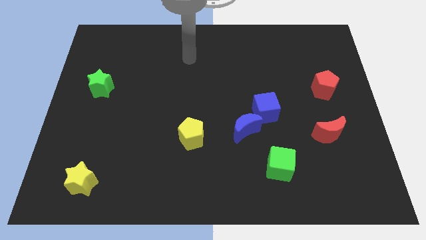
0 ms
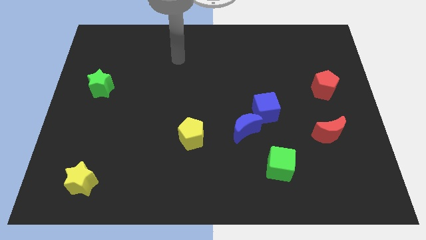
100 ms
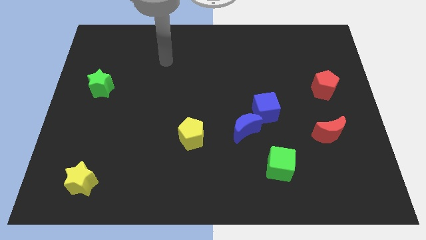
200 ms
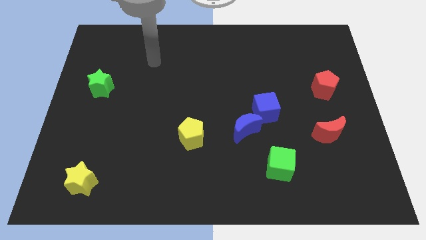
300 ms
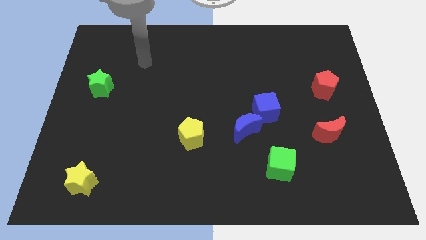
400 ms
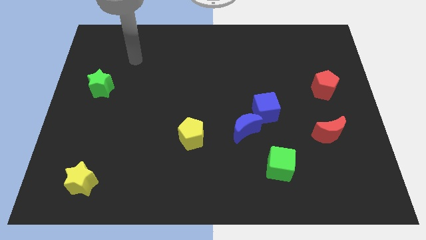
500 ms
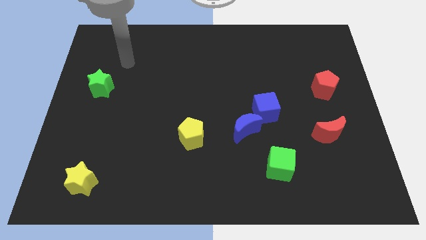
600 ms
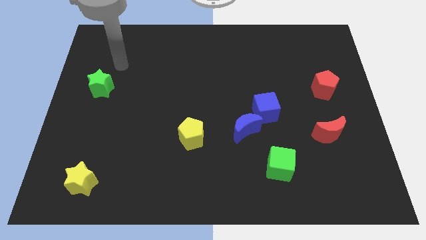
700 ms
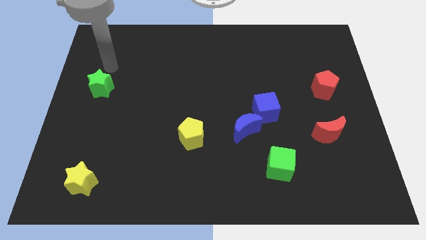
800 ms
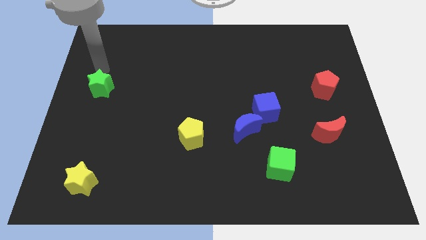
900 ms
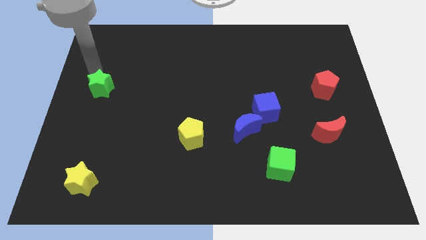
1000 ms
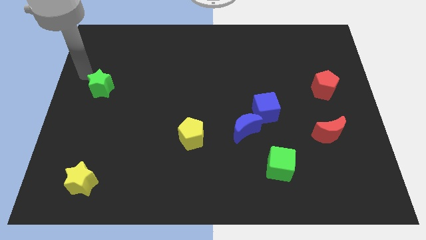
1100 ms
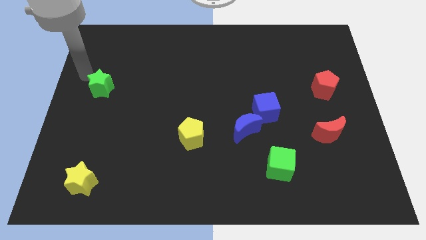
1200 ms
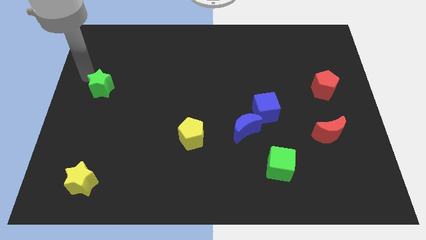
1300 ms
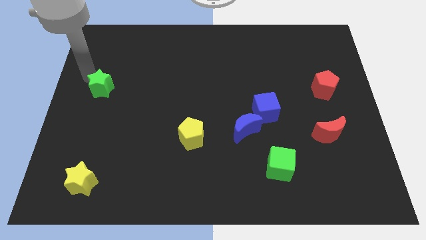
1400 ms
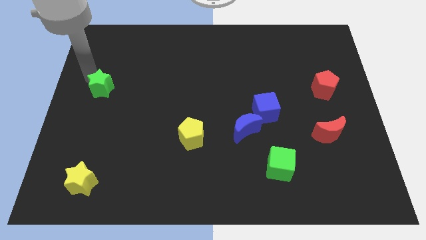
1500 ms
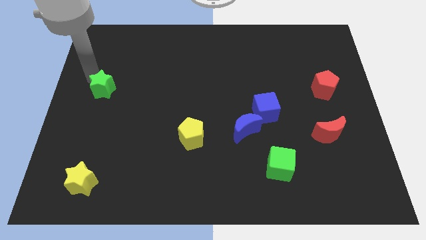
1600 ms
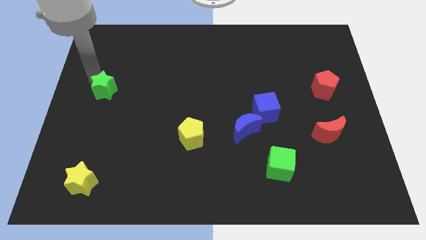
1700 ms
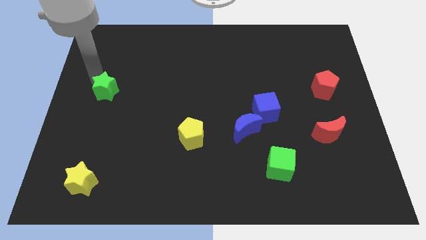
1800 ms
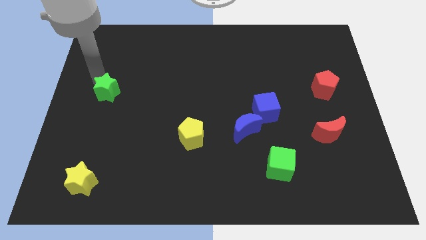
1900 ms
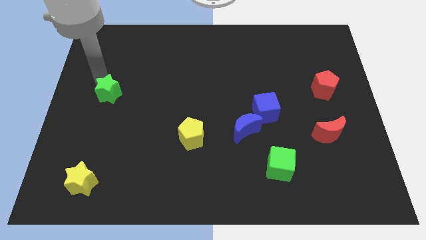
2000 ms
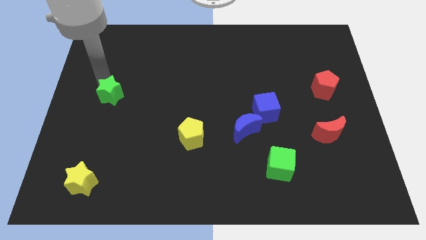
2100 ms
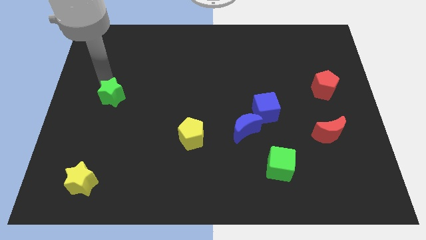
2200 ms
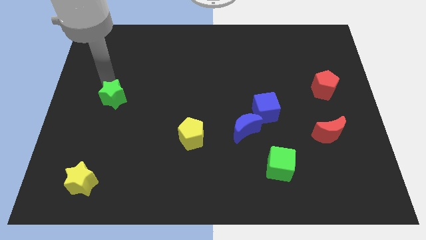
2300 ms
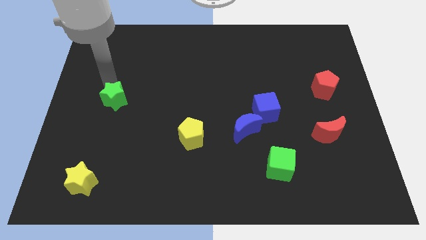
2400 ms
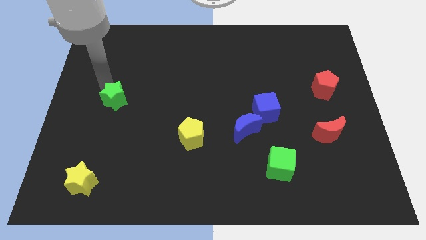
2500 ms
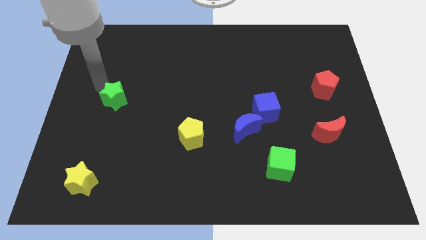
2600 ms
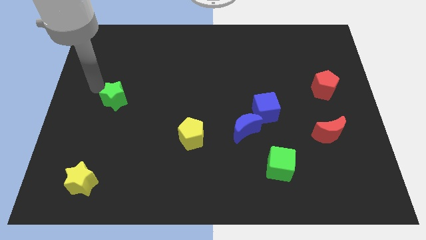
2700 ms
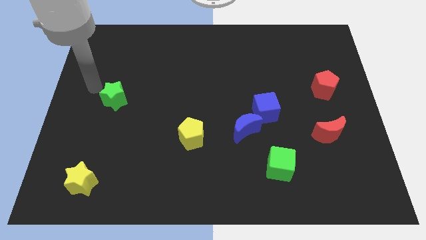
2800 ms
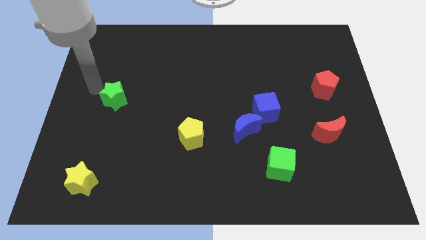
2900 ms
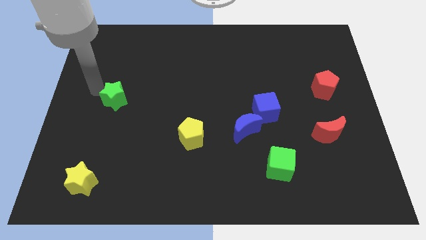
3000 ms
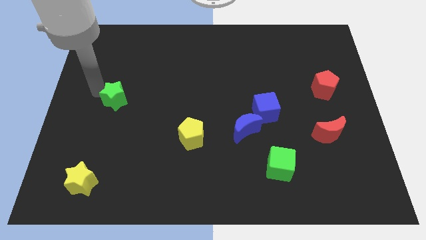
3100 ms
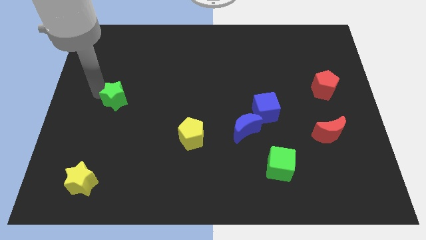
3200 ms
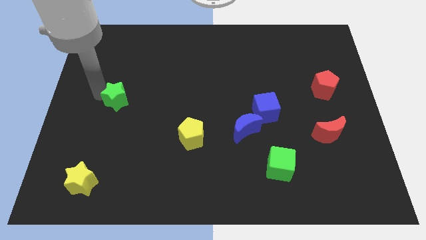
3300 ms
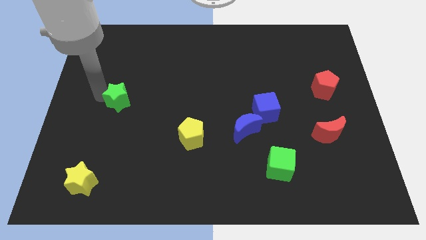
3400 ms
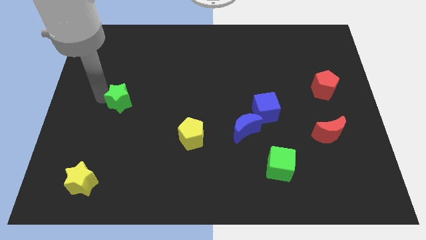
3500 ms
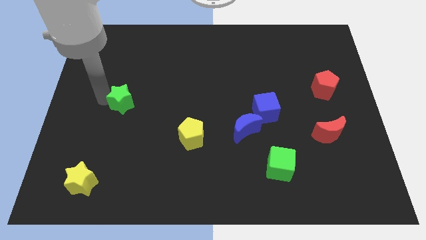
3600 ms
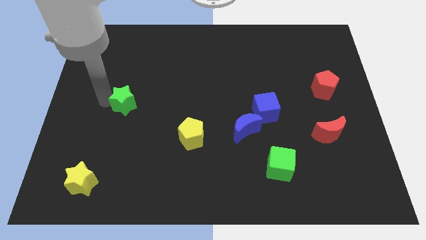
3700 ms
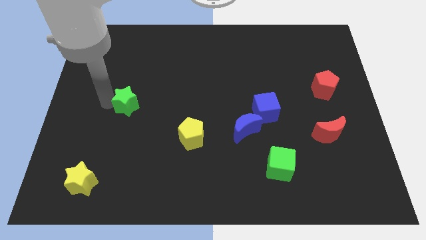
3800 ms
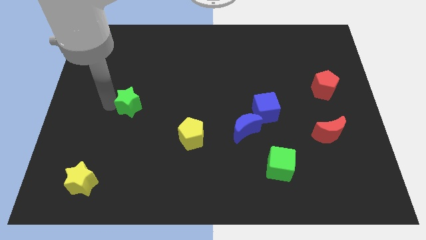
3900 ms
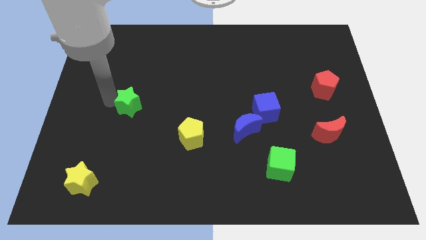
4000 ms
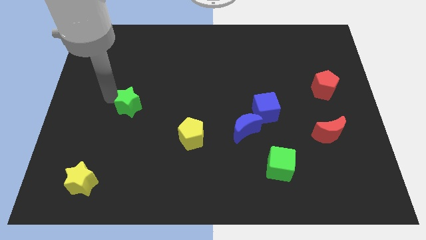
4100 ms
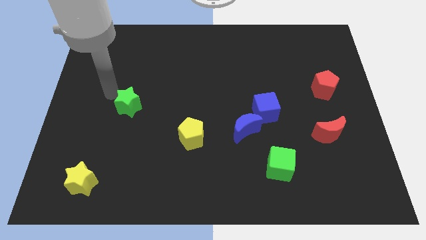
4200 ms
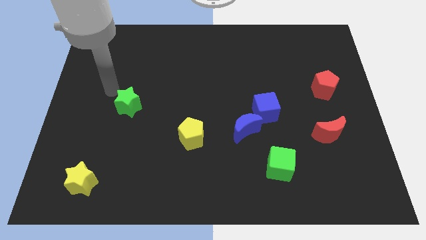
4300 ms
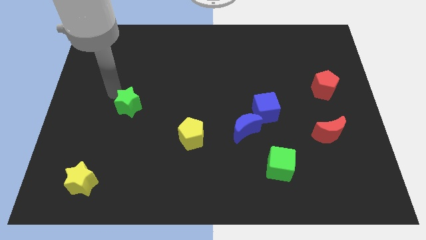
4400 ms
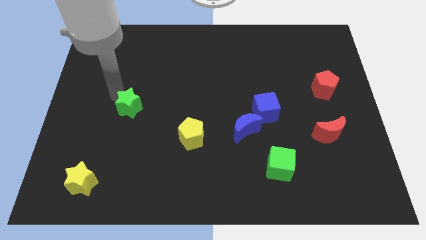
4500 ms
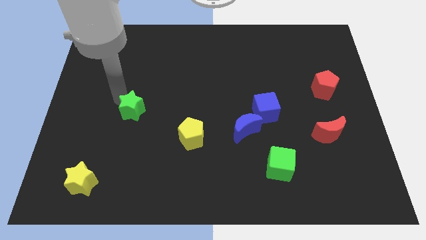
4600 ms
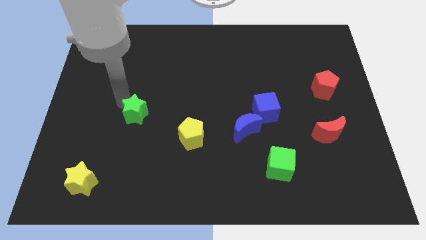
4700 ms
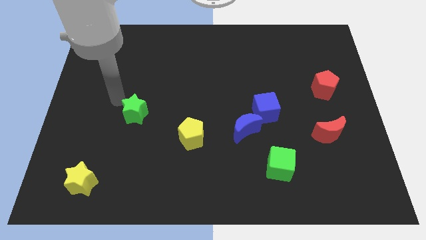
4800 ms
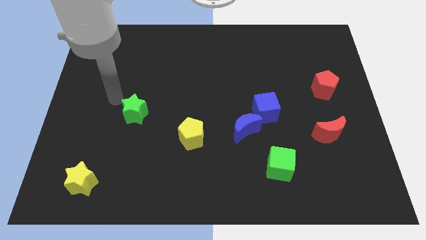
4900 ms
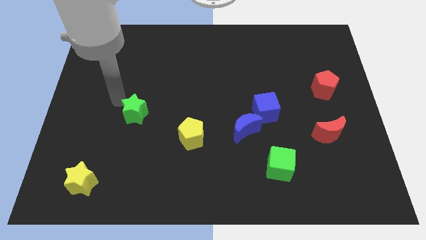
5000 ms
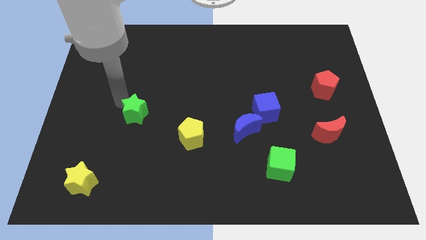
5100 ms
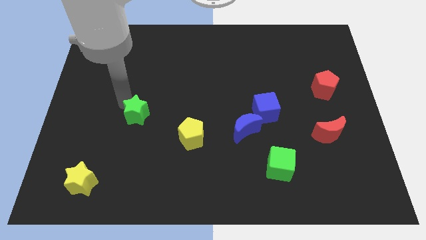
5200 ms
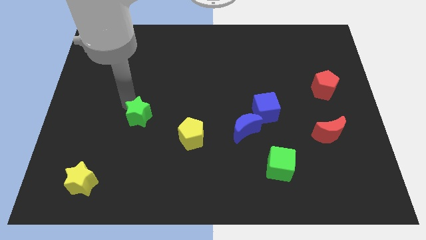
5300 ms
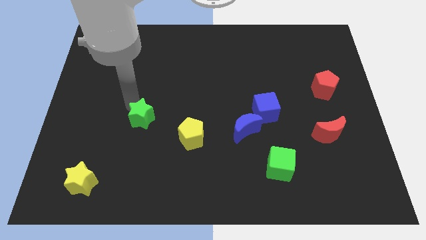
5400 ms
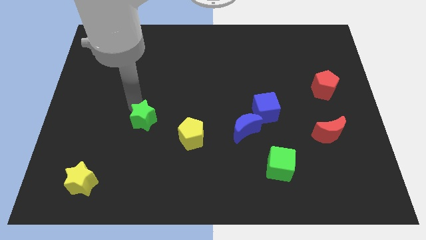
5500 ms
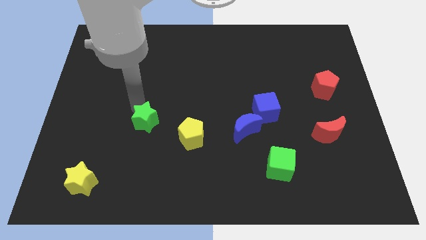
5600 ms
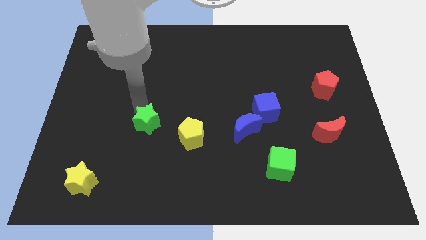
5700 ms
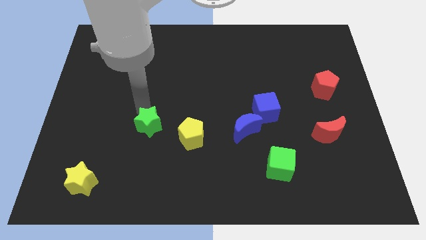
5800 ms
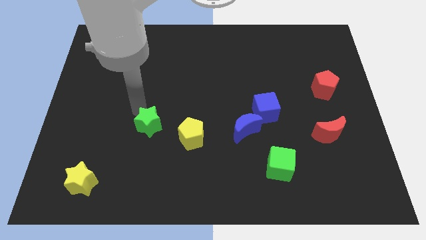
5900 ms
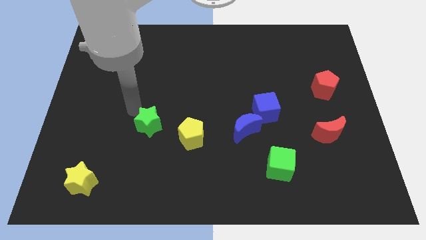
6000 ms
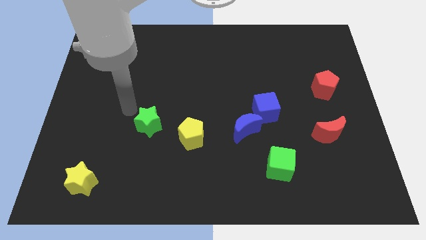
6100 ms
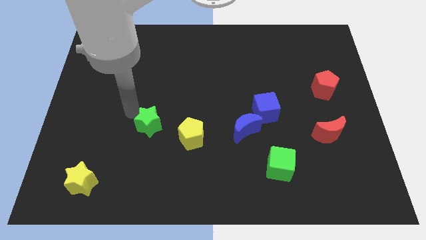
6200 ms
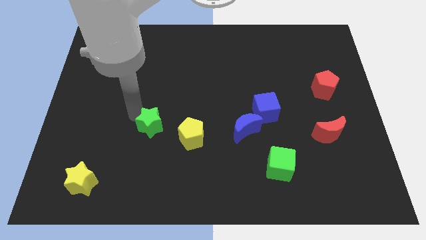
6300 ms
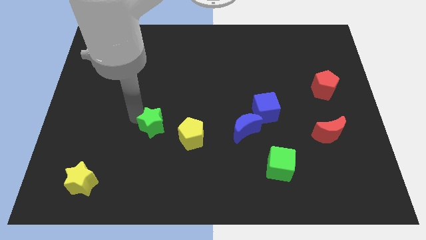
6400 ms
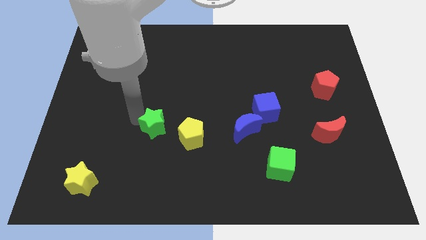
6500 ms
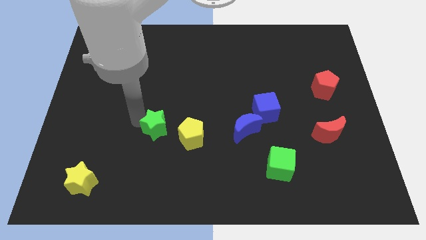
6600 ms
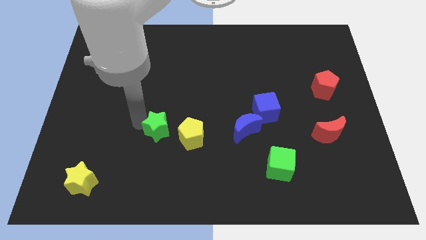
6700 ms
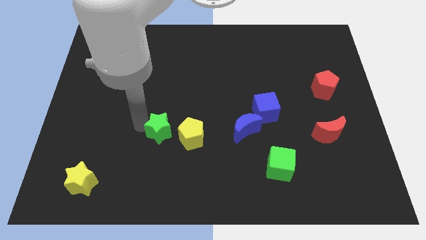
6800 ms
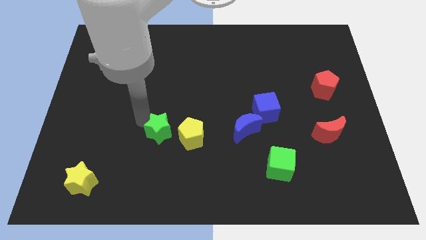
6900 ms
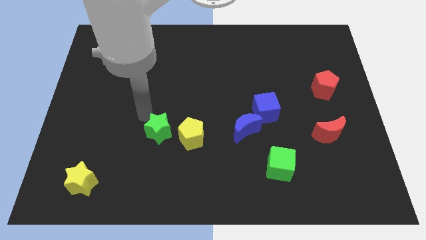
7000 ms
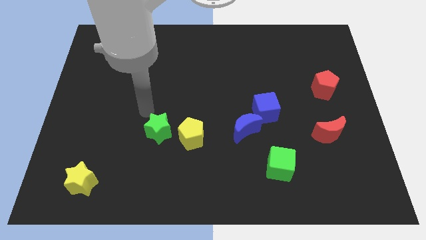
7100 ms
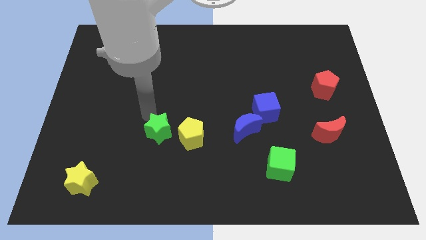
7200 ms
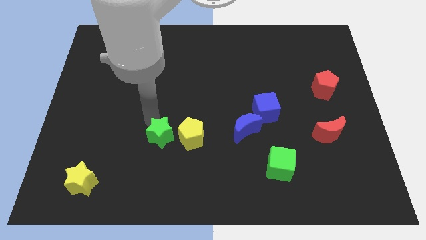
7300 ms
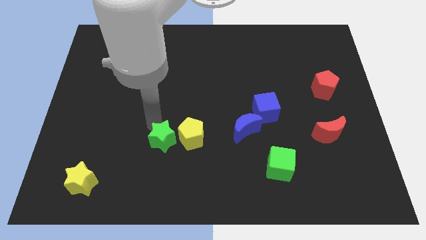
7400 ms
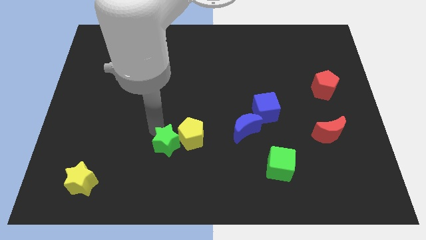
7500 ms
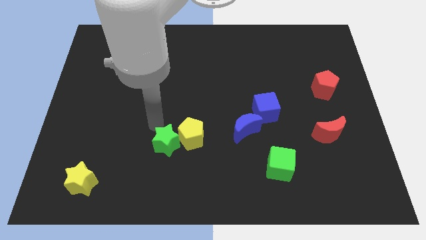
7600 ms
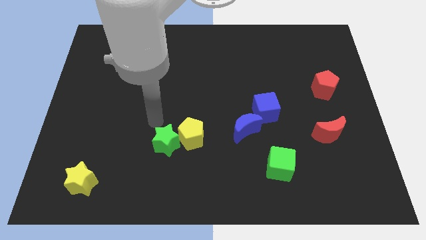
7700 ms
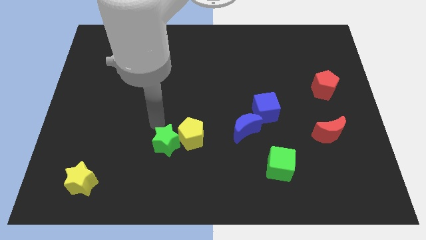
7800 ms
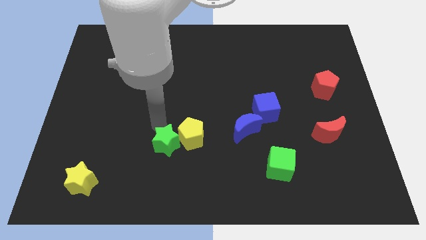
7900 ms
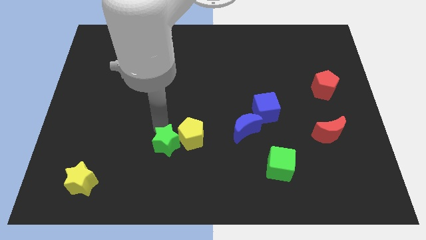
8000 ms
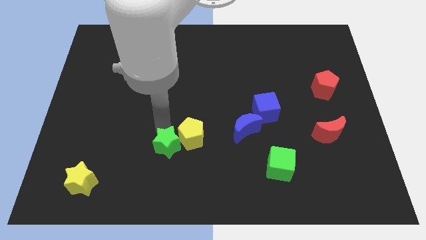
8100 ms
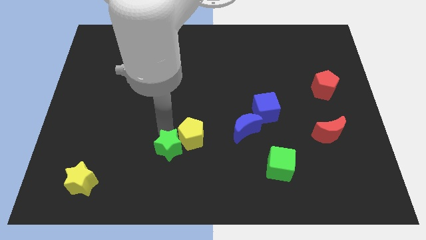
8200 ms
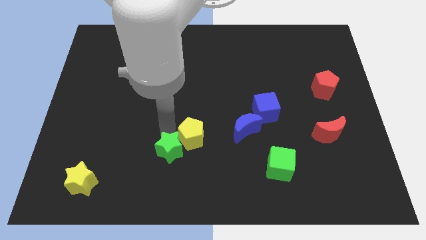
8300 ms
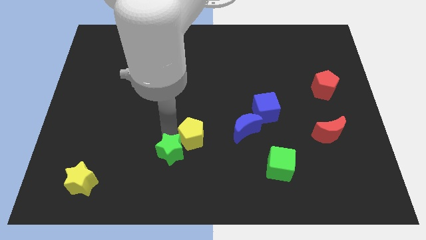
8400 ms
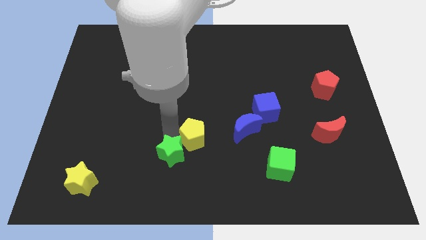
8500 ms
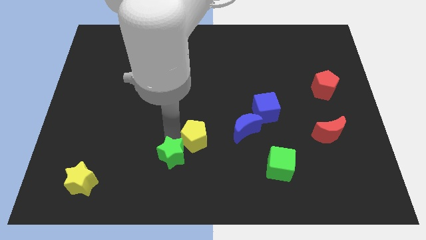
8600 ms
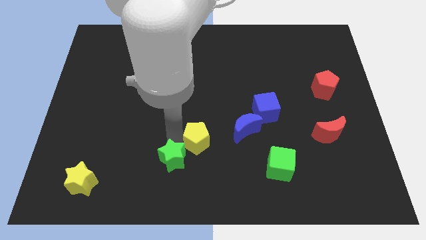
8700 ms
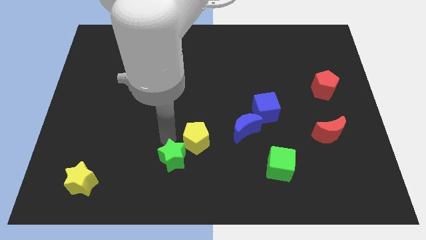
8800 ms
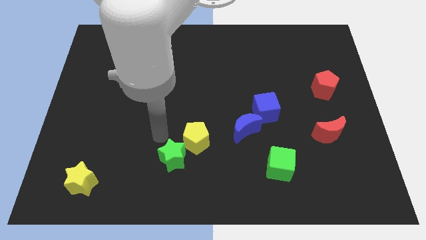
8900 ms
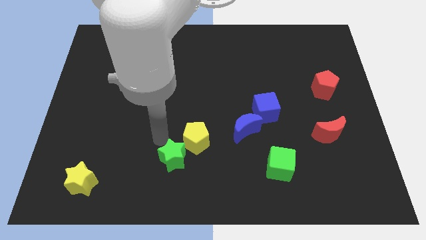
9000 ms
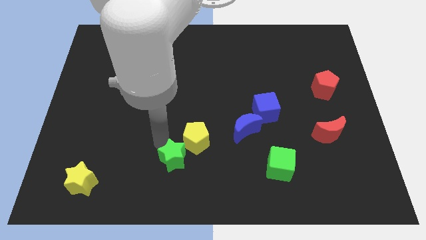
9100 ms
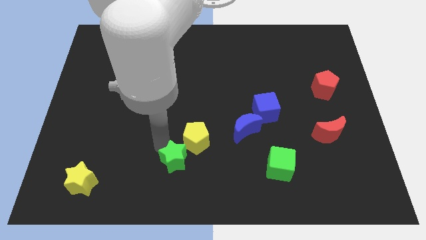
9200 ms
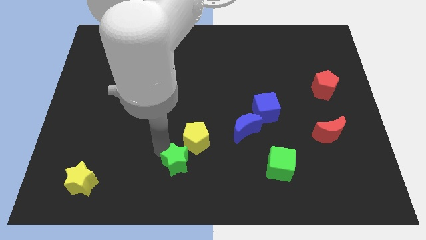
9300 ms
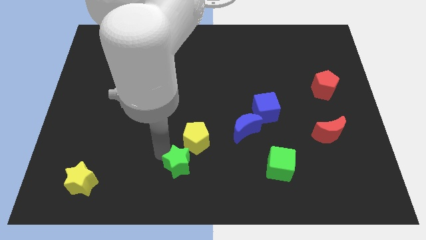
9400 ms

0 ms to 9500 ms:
move the green star to the bottom side
